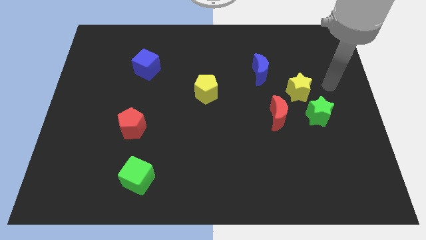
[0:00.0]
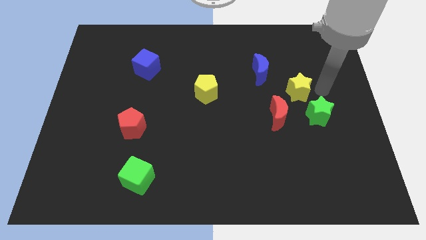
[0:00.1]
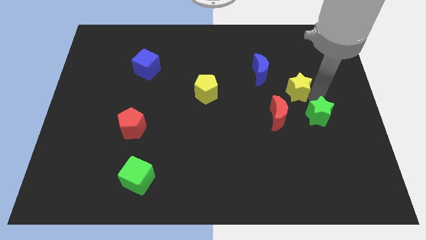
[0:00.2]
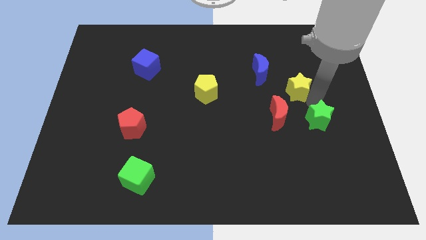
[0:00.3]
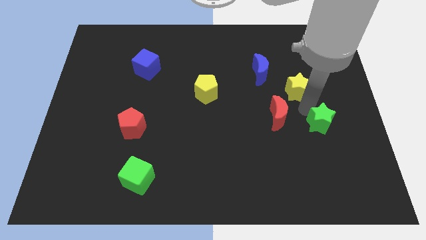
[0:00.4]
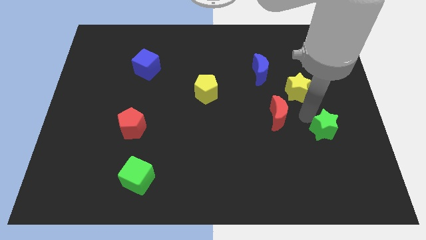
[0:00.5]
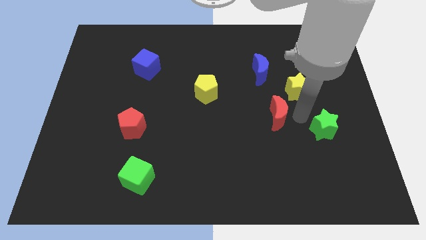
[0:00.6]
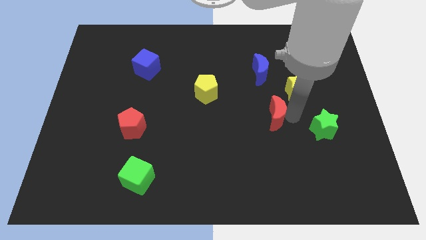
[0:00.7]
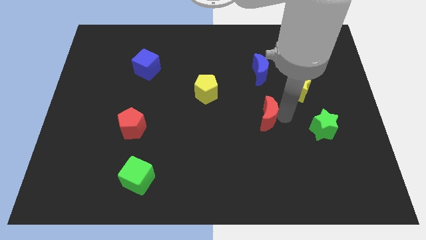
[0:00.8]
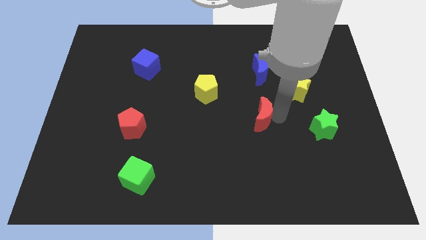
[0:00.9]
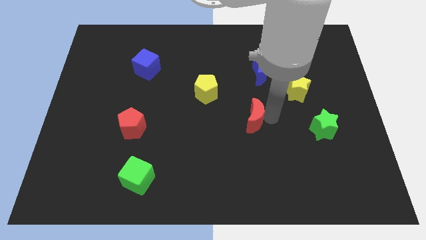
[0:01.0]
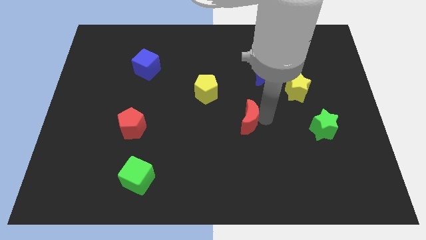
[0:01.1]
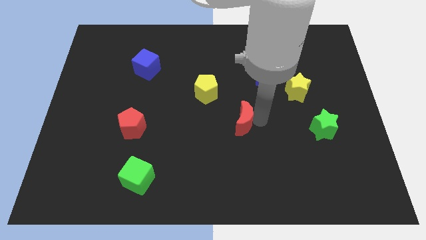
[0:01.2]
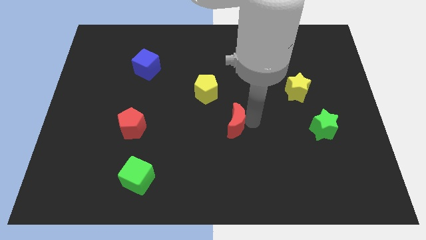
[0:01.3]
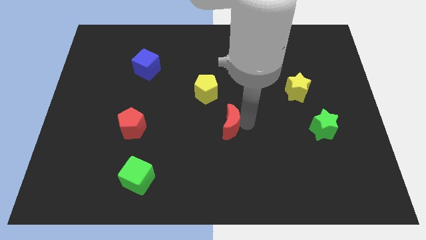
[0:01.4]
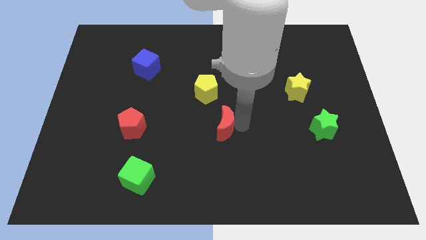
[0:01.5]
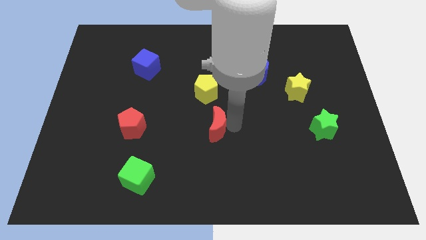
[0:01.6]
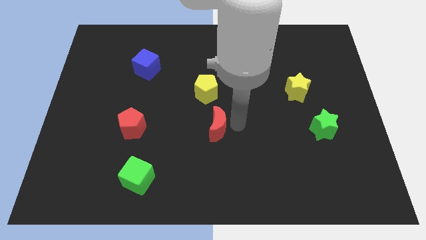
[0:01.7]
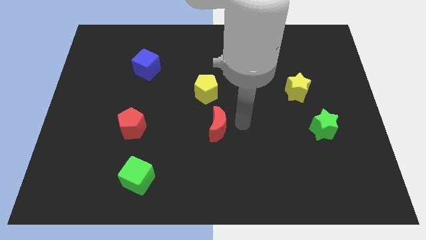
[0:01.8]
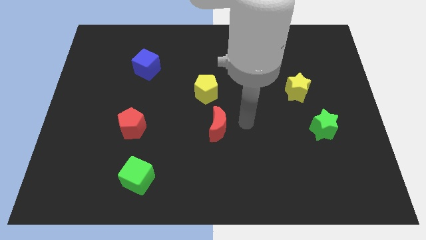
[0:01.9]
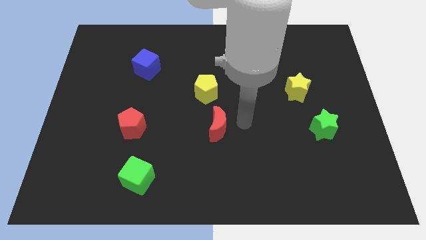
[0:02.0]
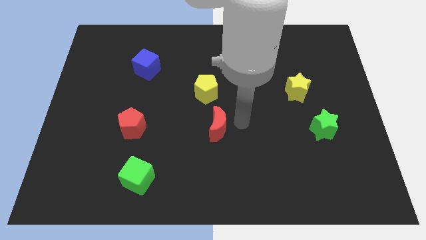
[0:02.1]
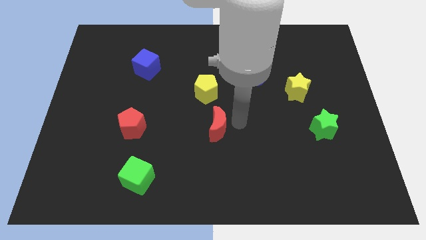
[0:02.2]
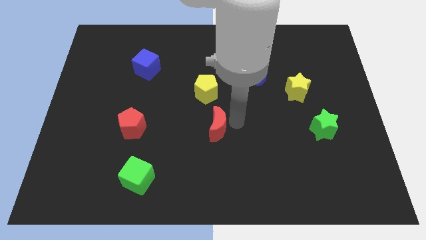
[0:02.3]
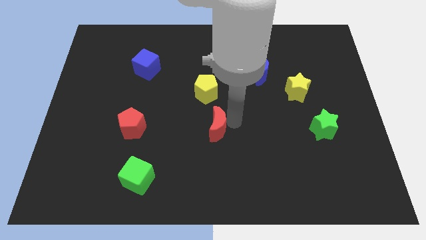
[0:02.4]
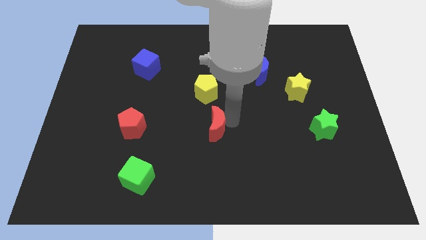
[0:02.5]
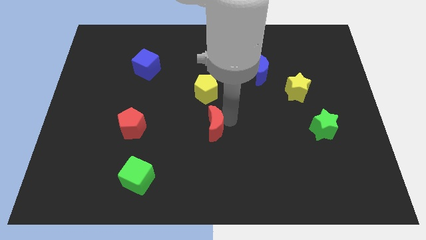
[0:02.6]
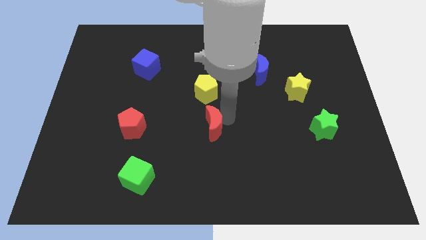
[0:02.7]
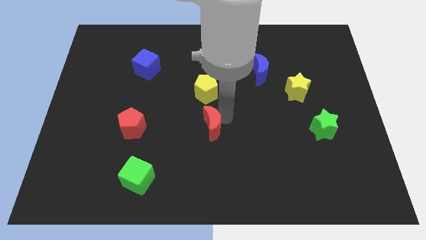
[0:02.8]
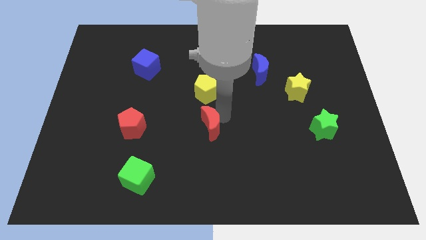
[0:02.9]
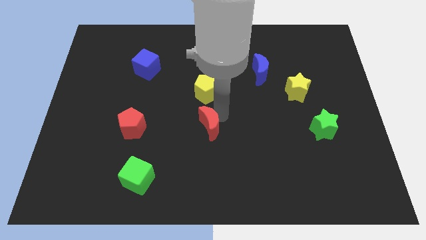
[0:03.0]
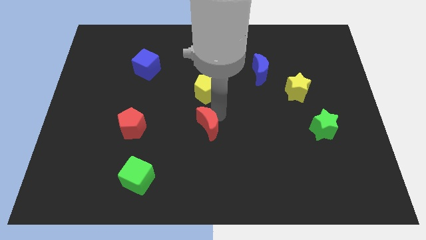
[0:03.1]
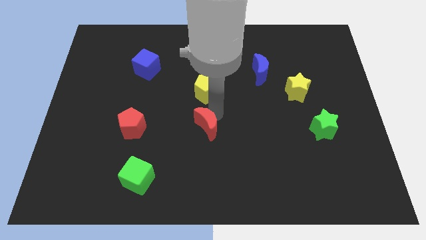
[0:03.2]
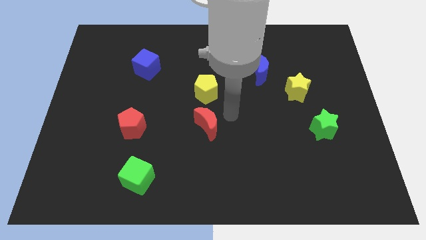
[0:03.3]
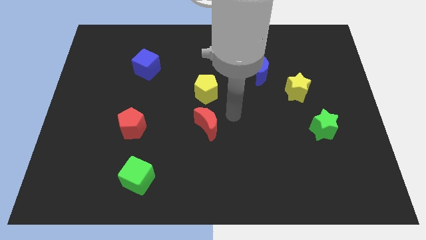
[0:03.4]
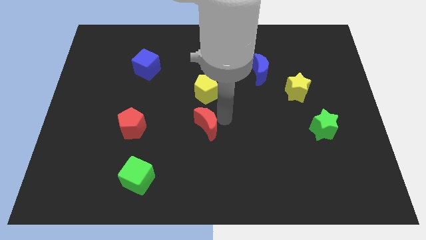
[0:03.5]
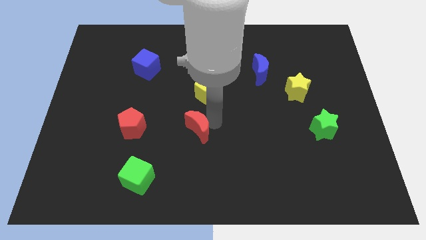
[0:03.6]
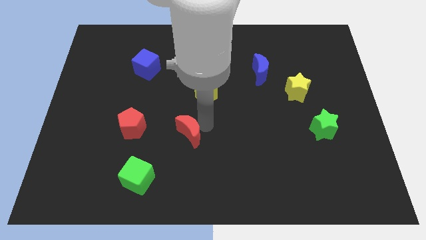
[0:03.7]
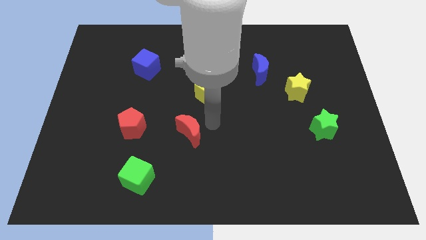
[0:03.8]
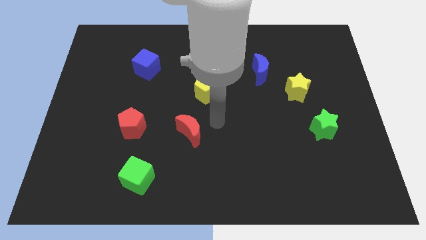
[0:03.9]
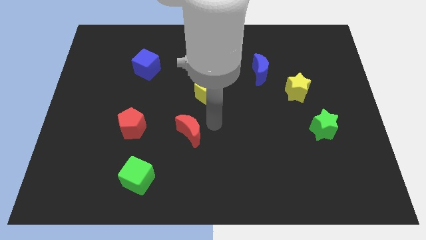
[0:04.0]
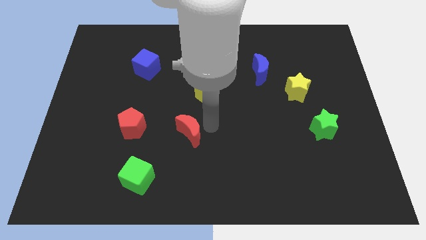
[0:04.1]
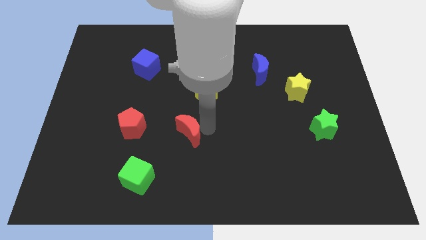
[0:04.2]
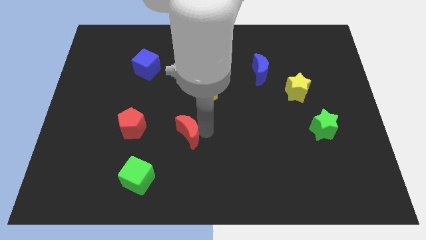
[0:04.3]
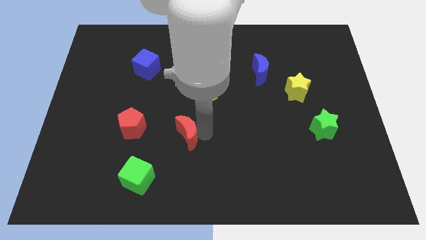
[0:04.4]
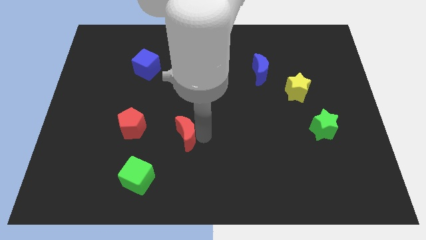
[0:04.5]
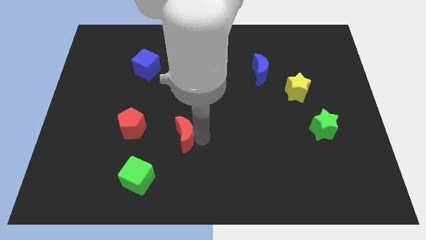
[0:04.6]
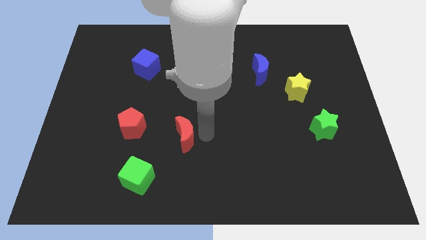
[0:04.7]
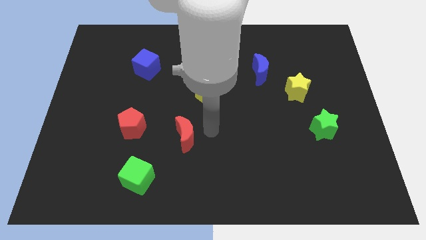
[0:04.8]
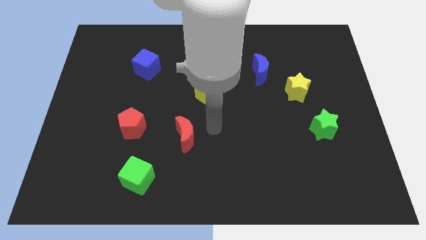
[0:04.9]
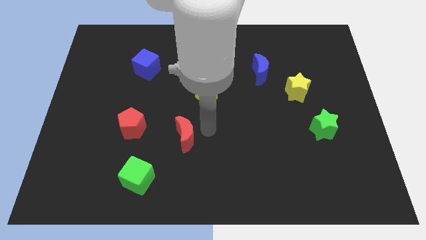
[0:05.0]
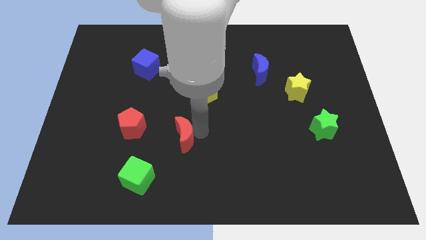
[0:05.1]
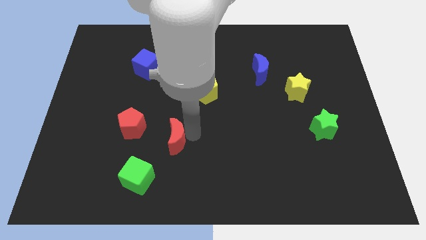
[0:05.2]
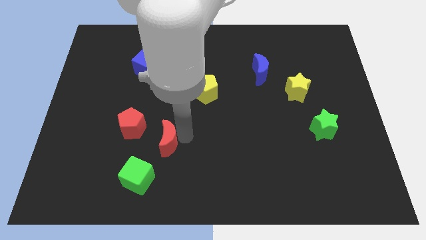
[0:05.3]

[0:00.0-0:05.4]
move the red moon diagonally down and to the right of the red pentagon

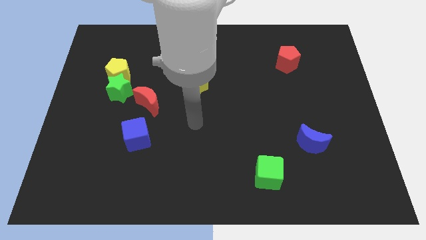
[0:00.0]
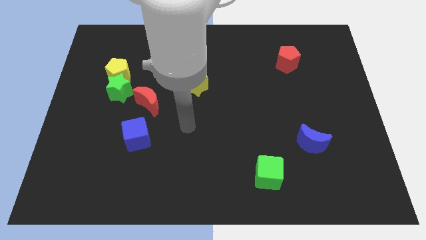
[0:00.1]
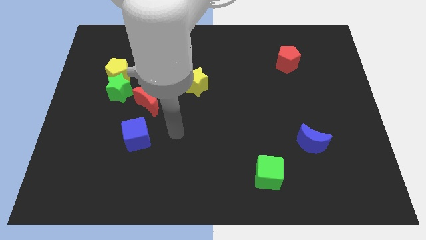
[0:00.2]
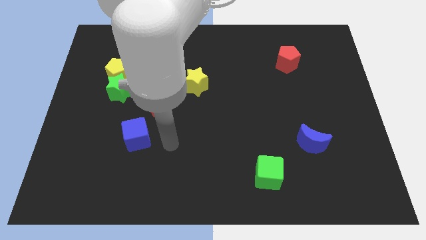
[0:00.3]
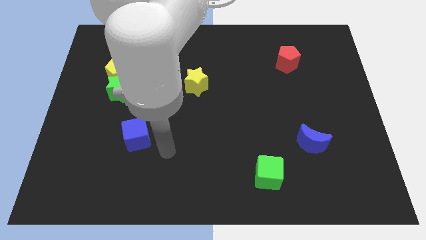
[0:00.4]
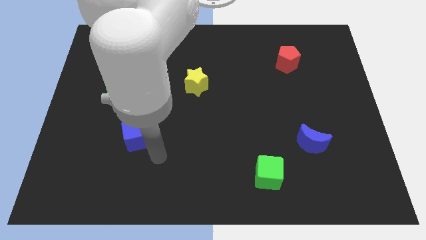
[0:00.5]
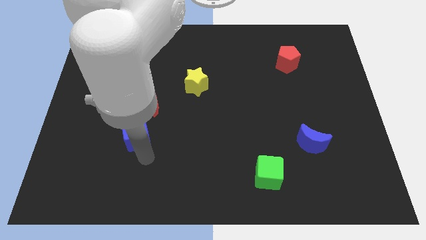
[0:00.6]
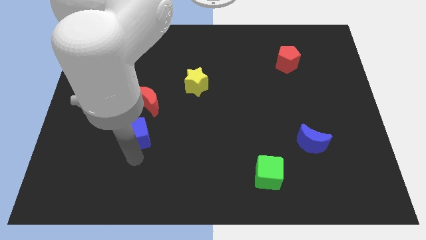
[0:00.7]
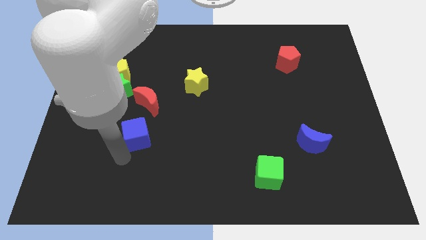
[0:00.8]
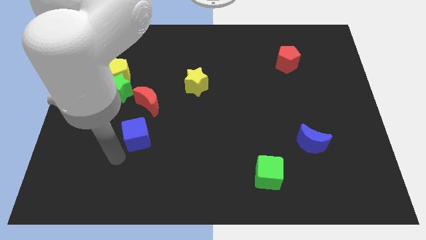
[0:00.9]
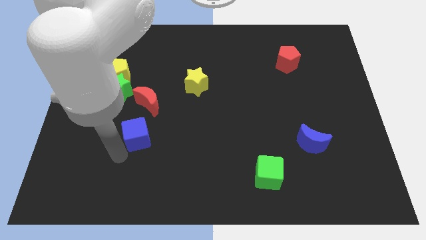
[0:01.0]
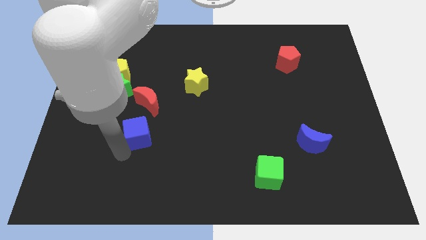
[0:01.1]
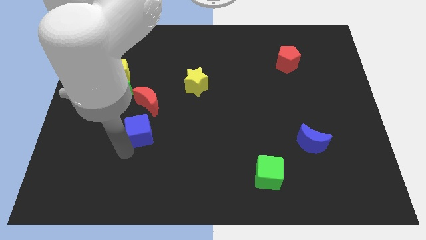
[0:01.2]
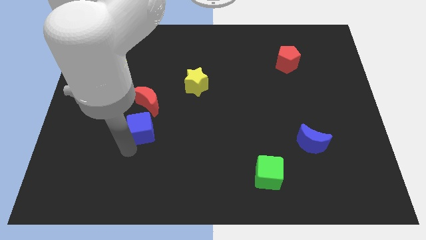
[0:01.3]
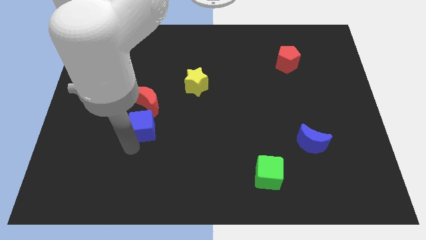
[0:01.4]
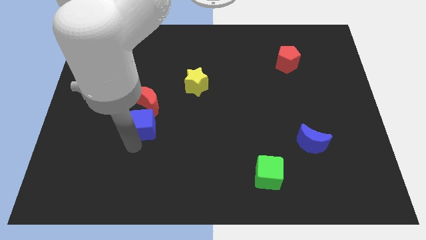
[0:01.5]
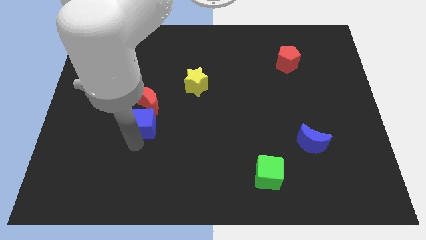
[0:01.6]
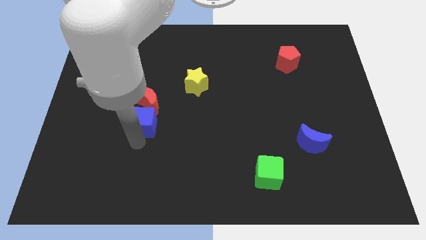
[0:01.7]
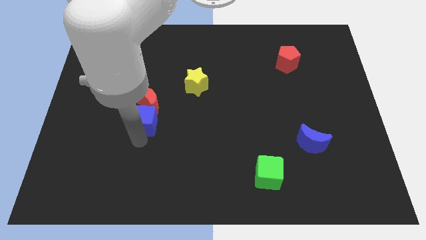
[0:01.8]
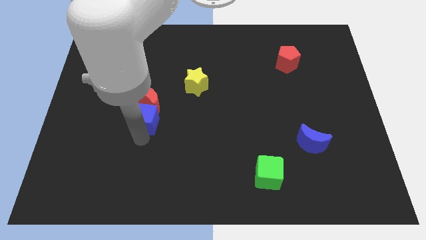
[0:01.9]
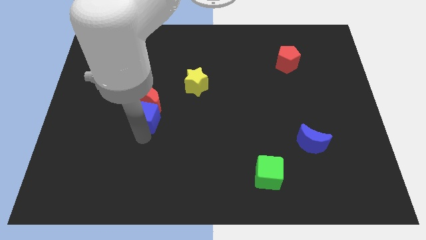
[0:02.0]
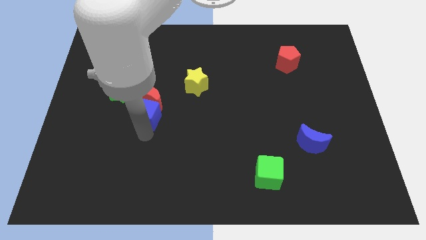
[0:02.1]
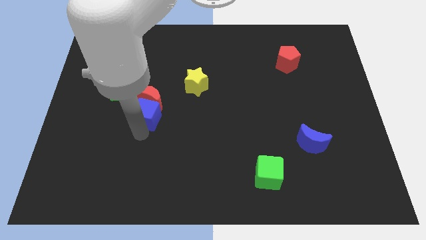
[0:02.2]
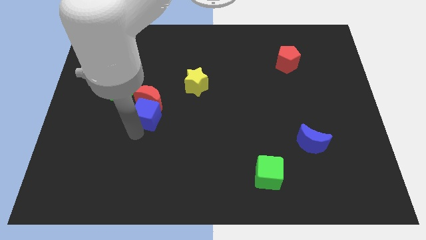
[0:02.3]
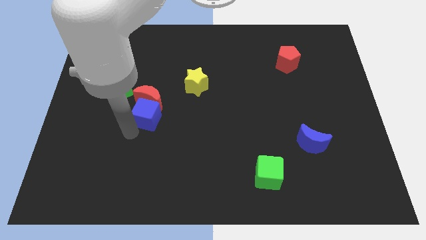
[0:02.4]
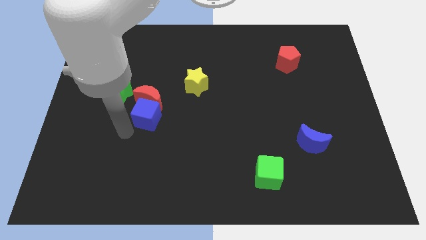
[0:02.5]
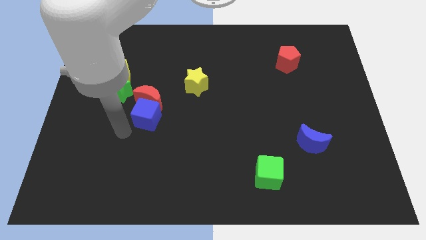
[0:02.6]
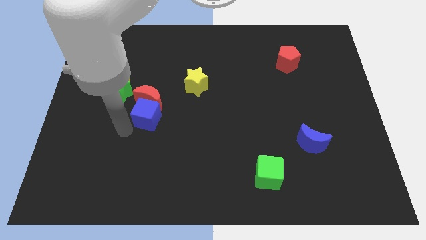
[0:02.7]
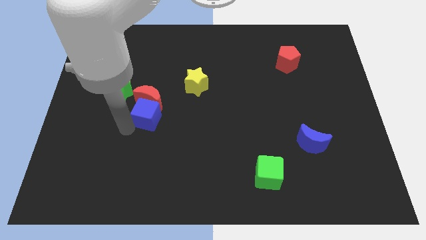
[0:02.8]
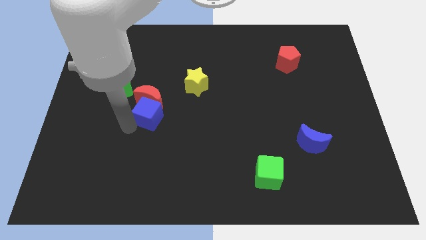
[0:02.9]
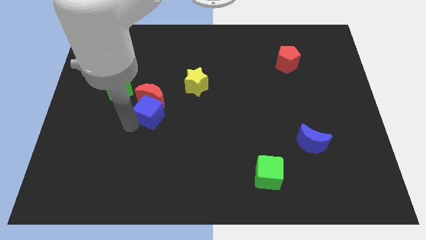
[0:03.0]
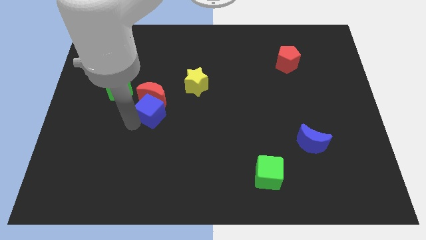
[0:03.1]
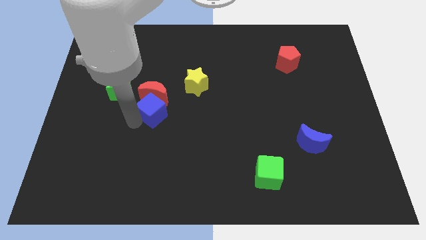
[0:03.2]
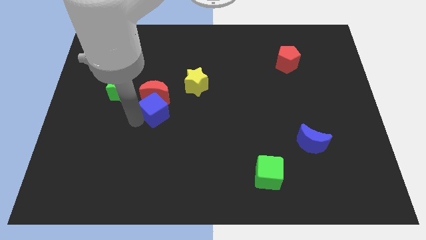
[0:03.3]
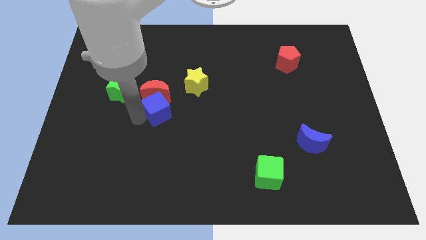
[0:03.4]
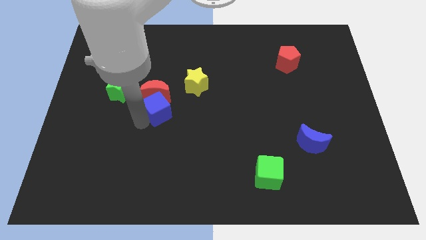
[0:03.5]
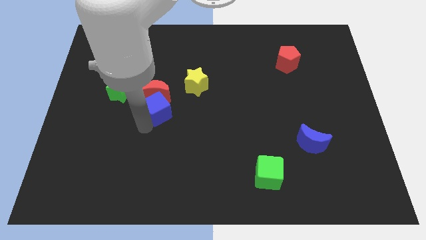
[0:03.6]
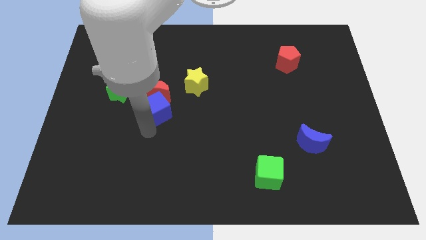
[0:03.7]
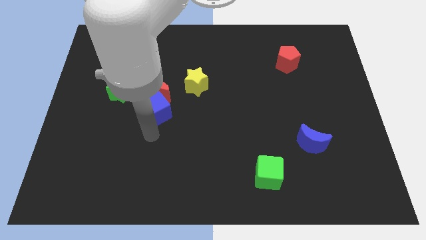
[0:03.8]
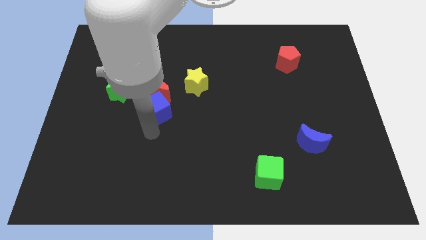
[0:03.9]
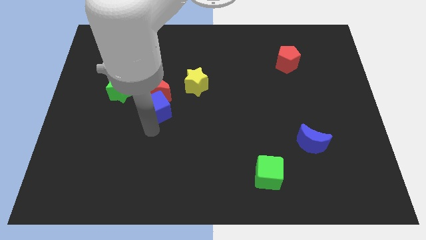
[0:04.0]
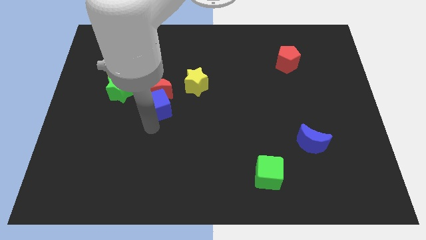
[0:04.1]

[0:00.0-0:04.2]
put the blue cube to the right side of the green star
